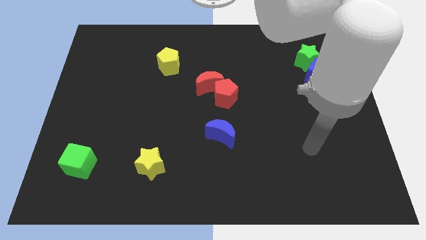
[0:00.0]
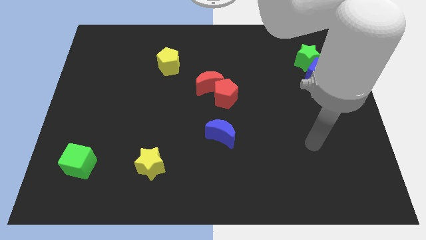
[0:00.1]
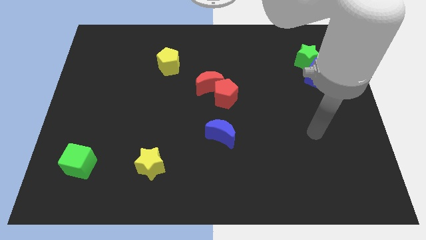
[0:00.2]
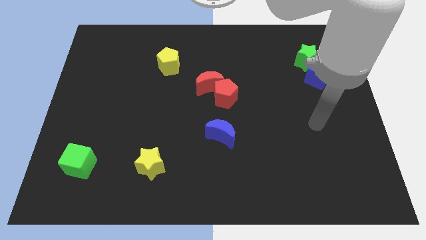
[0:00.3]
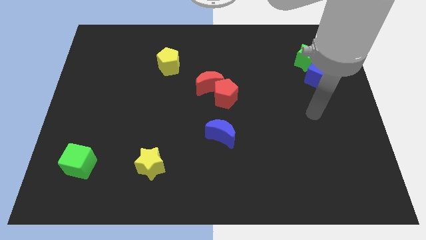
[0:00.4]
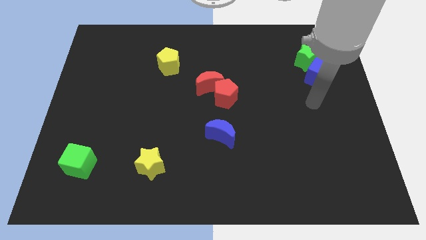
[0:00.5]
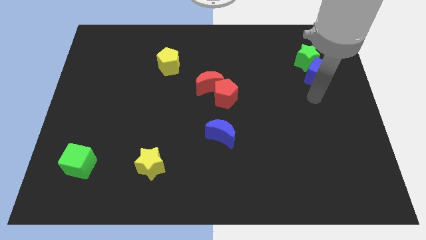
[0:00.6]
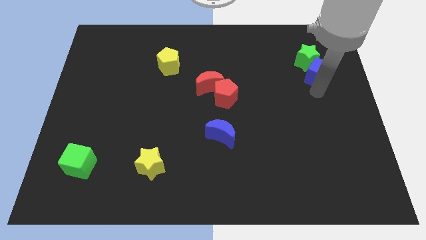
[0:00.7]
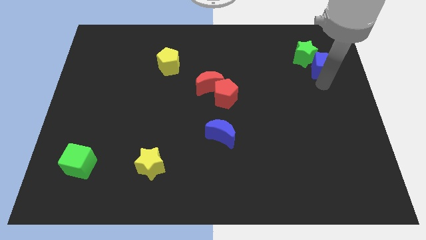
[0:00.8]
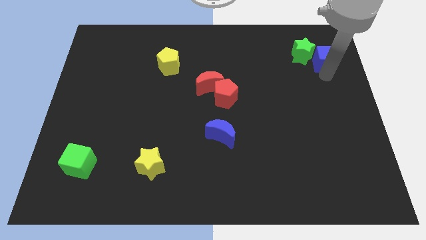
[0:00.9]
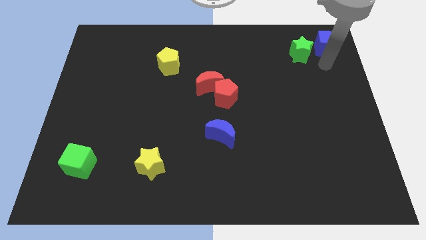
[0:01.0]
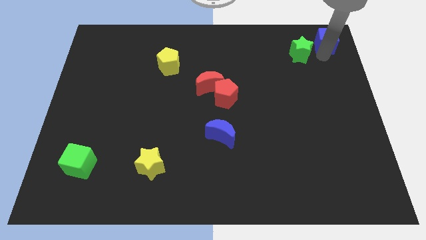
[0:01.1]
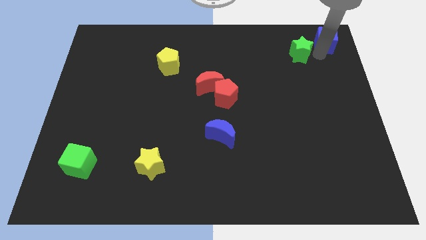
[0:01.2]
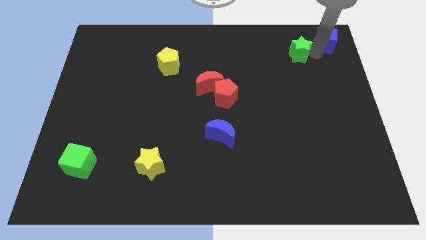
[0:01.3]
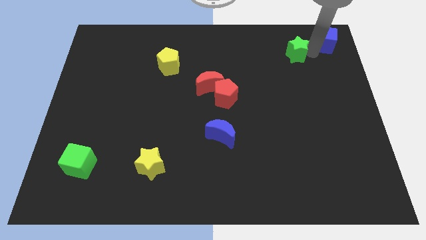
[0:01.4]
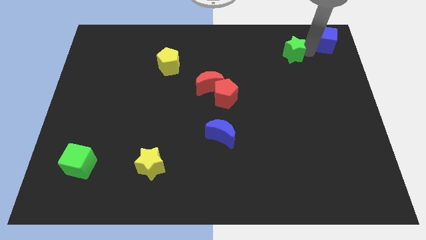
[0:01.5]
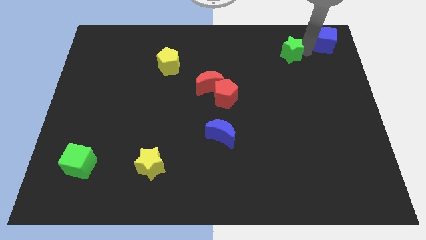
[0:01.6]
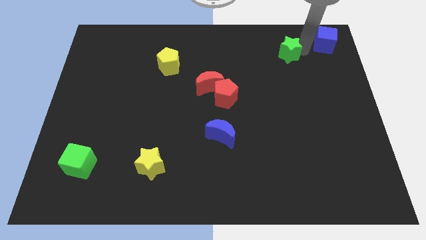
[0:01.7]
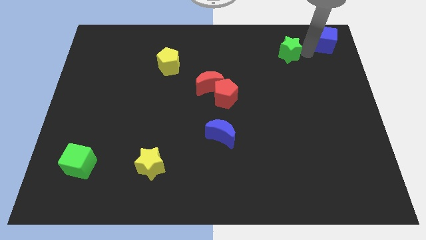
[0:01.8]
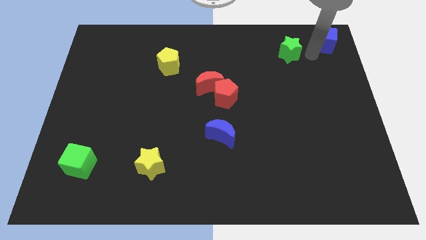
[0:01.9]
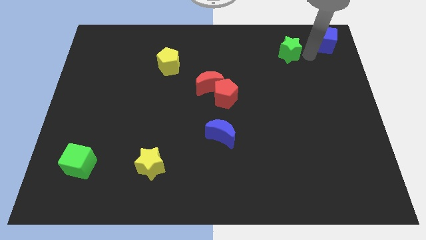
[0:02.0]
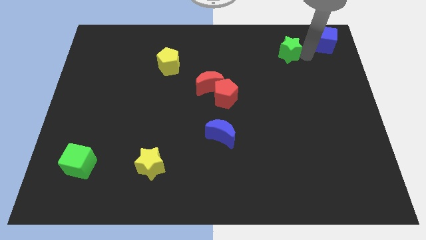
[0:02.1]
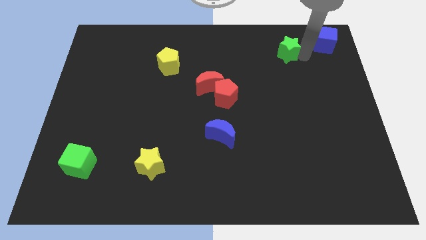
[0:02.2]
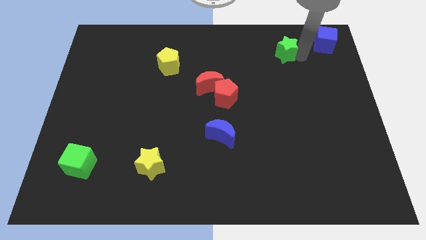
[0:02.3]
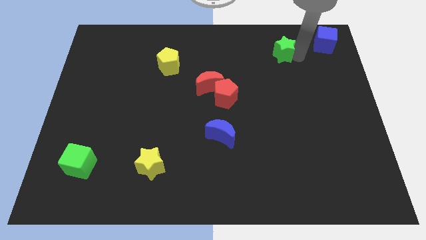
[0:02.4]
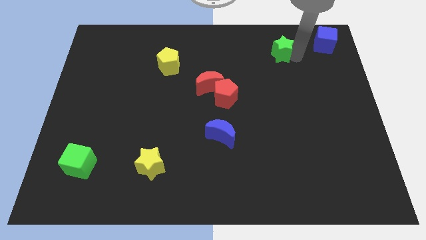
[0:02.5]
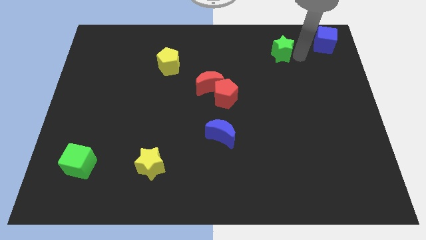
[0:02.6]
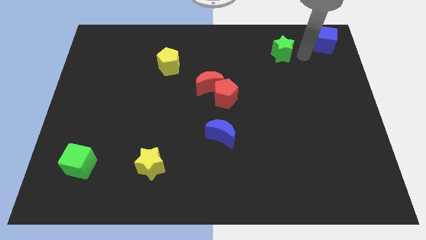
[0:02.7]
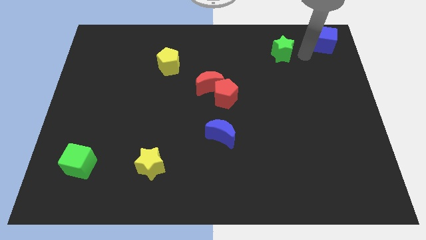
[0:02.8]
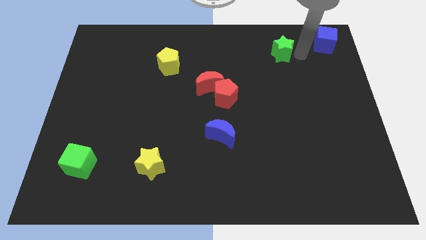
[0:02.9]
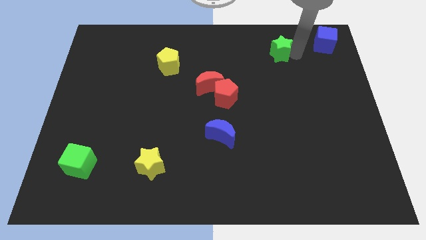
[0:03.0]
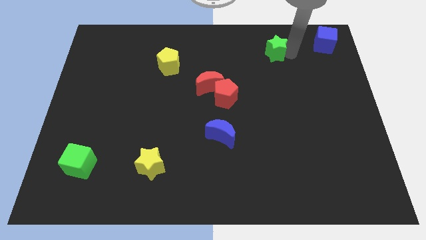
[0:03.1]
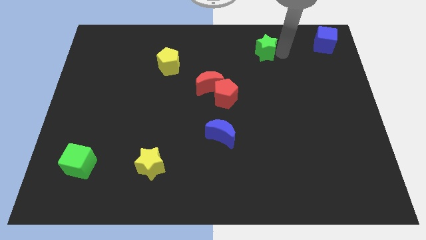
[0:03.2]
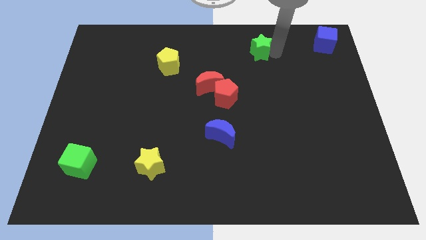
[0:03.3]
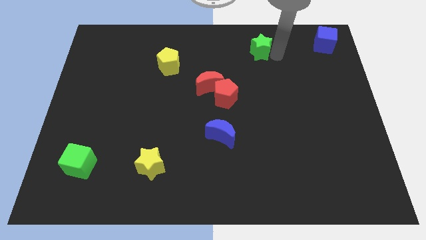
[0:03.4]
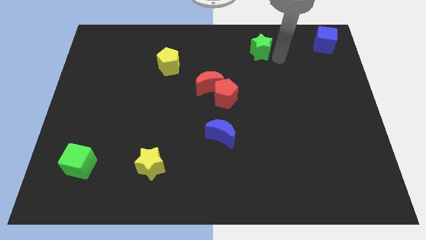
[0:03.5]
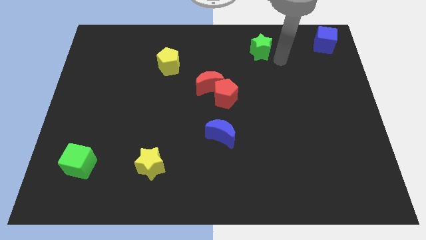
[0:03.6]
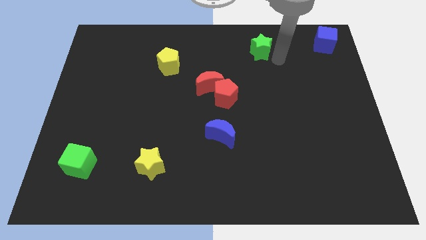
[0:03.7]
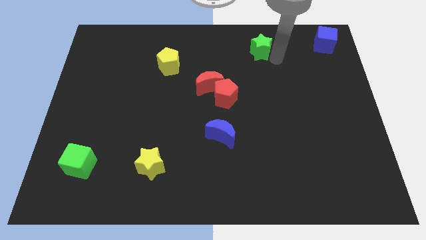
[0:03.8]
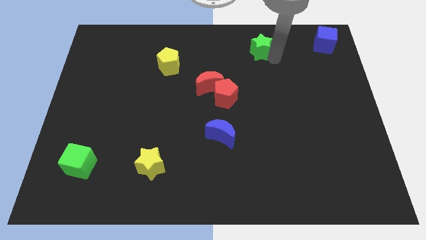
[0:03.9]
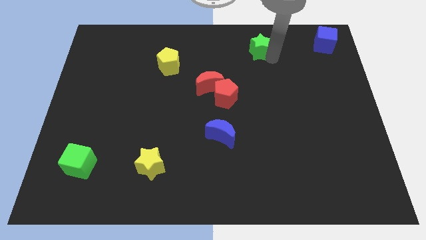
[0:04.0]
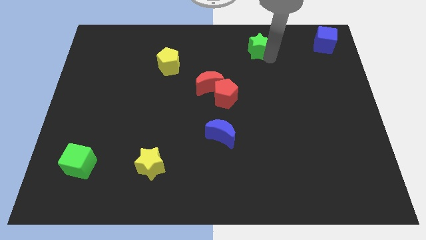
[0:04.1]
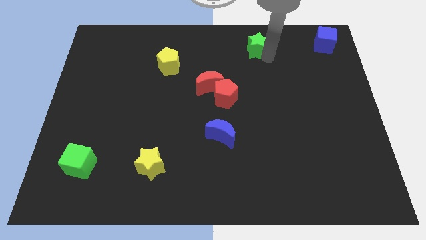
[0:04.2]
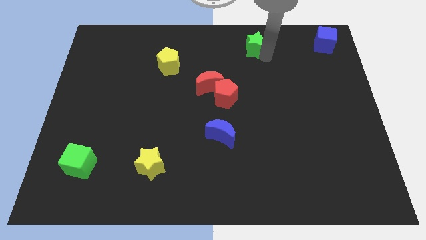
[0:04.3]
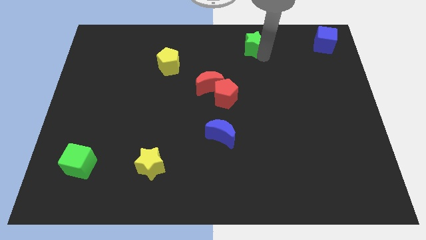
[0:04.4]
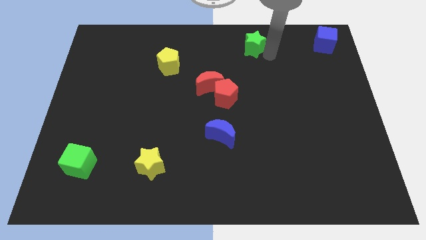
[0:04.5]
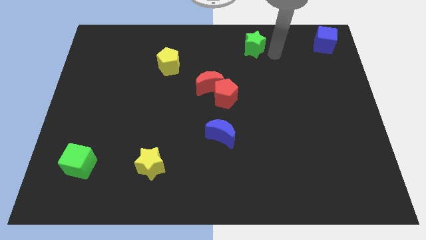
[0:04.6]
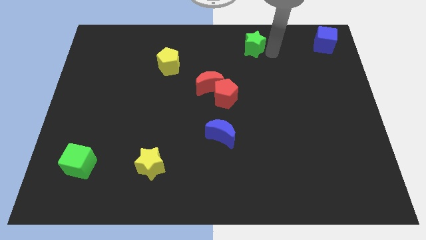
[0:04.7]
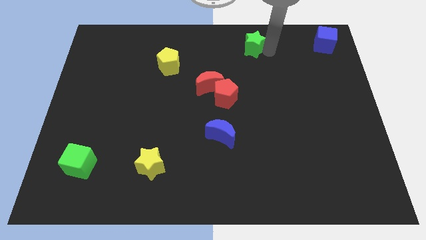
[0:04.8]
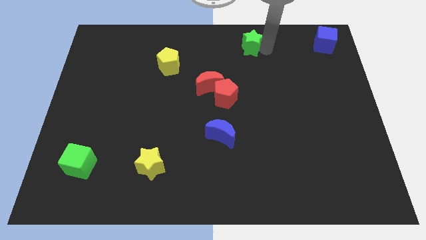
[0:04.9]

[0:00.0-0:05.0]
put the green star to the top

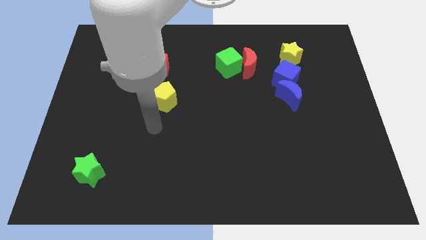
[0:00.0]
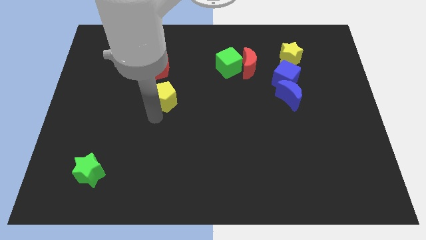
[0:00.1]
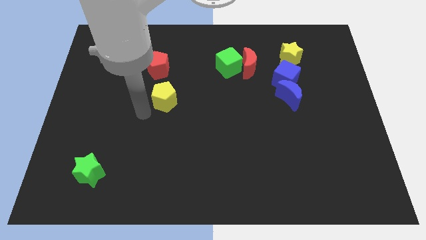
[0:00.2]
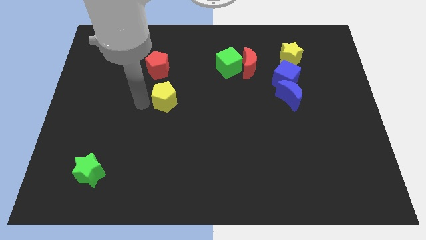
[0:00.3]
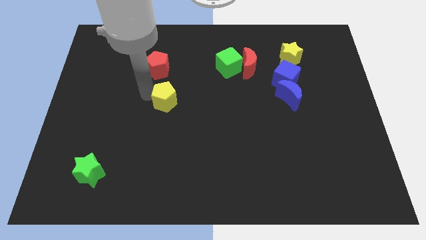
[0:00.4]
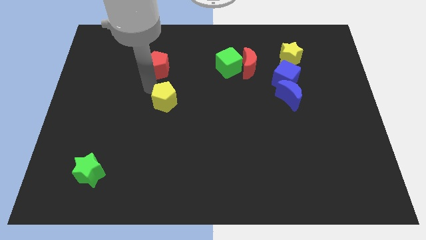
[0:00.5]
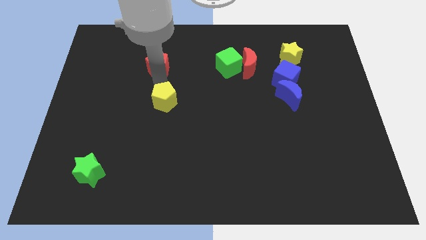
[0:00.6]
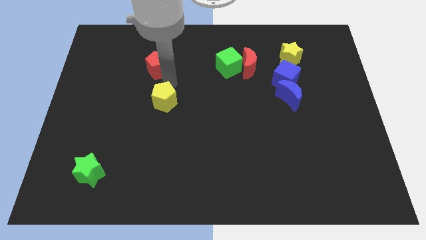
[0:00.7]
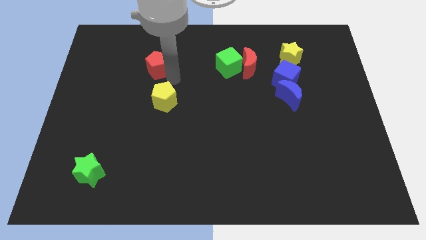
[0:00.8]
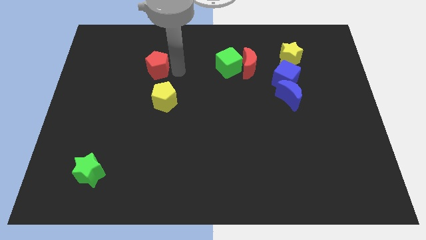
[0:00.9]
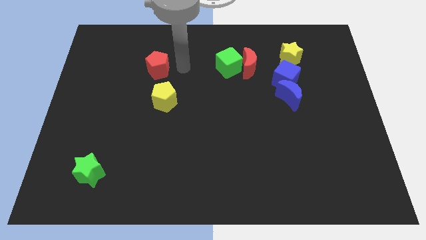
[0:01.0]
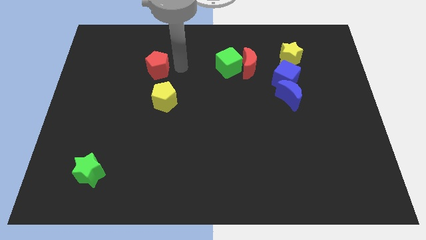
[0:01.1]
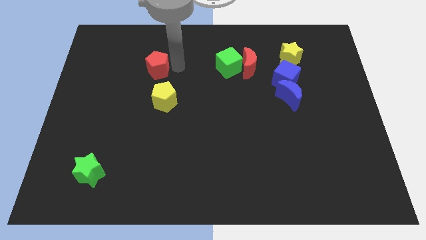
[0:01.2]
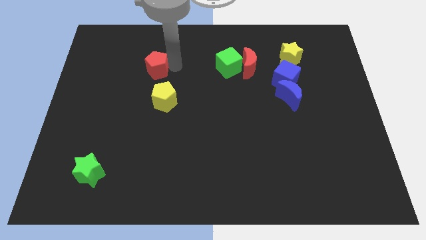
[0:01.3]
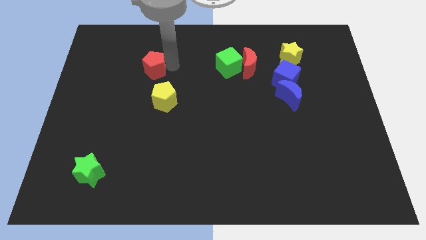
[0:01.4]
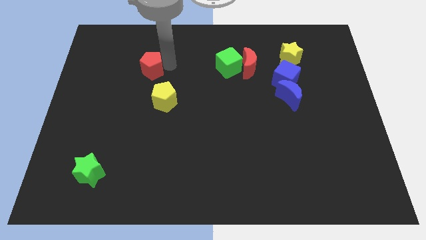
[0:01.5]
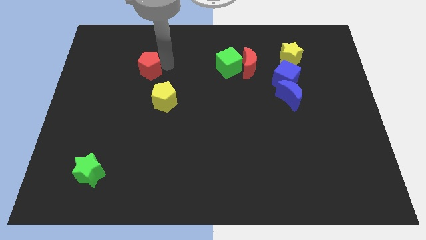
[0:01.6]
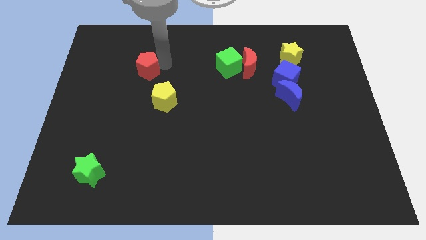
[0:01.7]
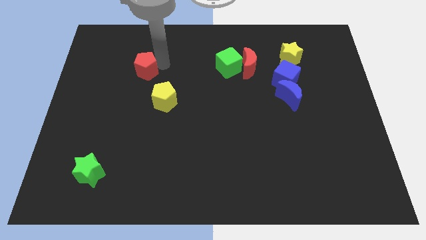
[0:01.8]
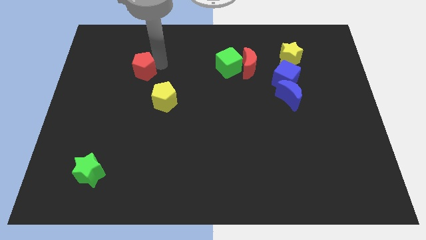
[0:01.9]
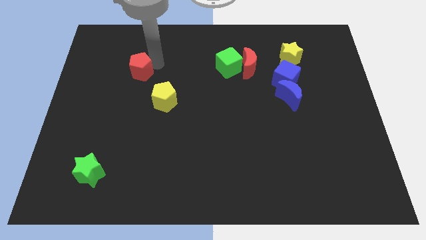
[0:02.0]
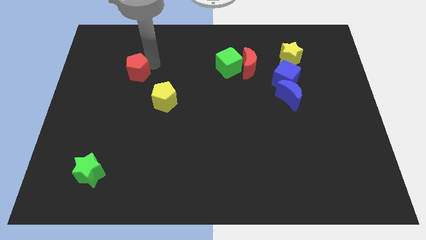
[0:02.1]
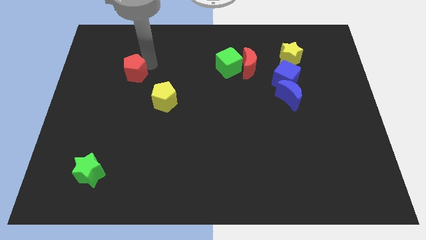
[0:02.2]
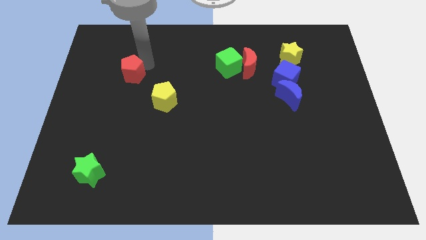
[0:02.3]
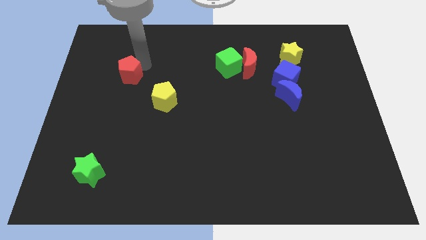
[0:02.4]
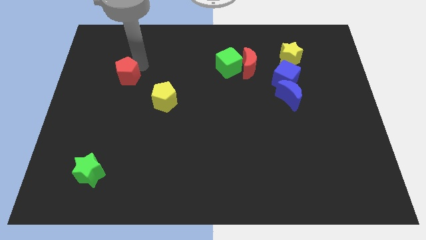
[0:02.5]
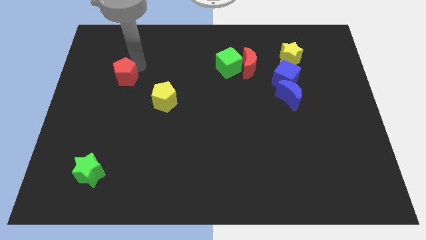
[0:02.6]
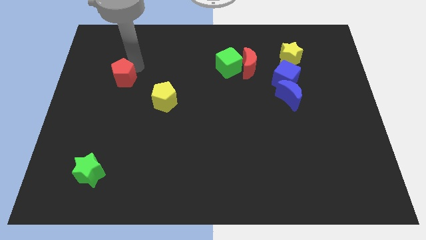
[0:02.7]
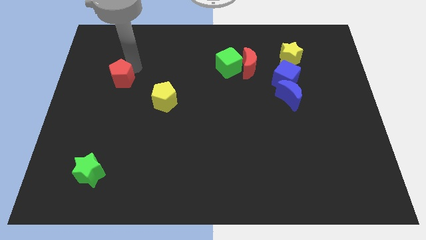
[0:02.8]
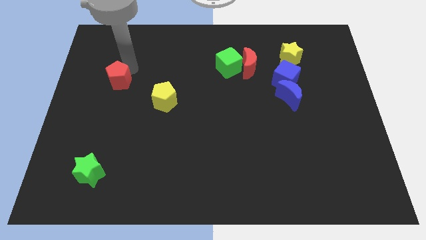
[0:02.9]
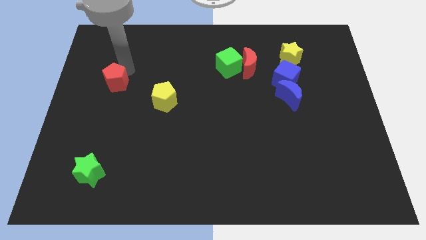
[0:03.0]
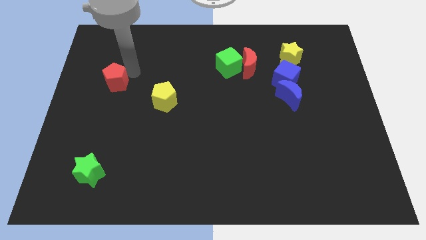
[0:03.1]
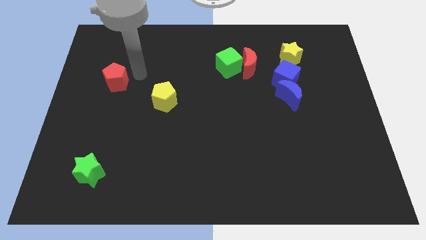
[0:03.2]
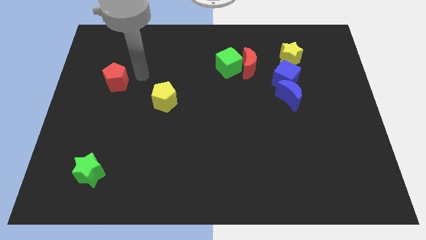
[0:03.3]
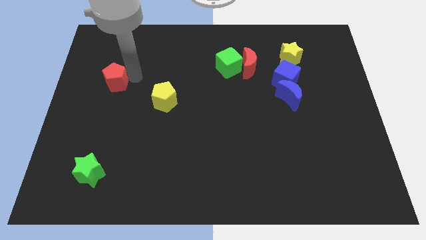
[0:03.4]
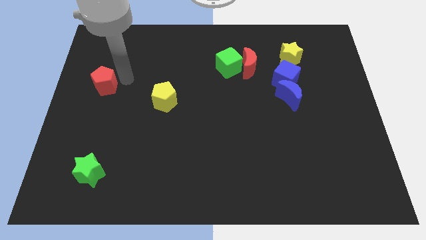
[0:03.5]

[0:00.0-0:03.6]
push the red pentagon to the left side of the board
